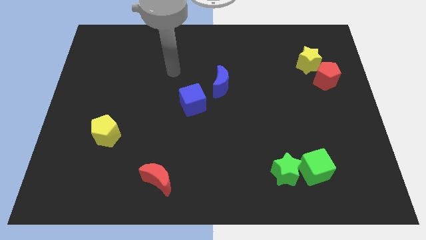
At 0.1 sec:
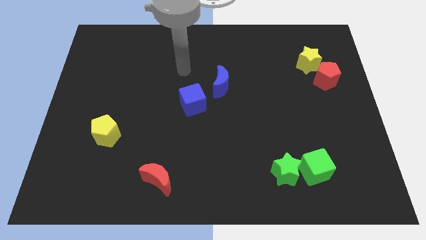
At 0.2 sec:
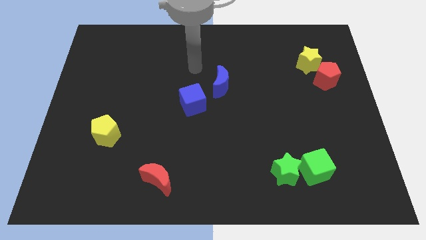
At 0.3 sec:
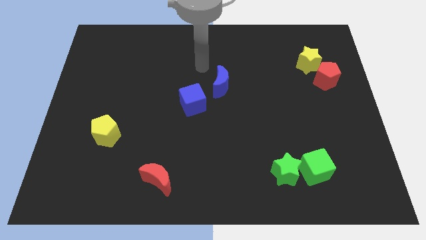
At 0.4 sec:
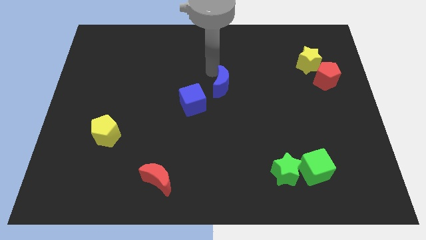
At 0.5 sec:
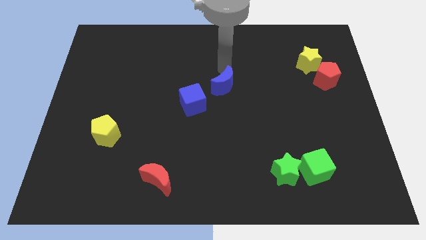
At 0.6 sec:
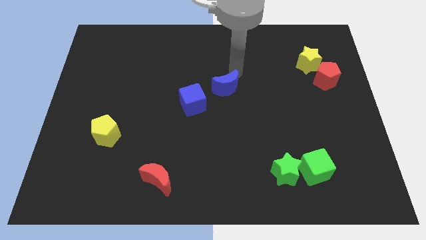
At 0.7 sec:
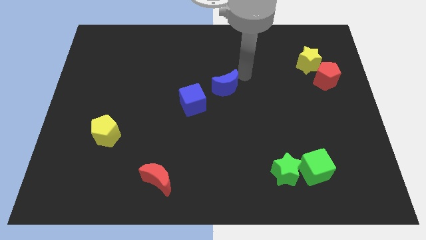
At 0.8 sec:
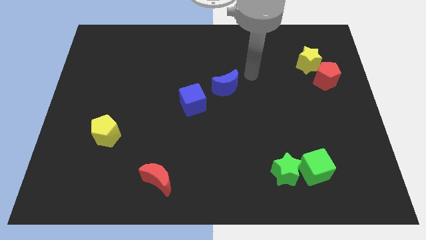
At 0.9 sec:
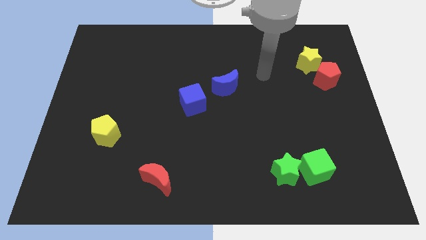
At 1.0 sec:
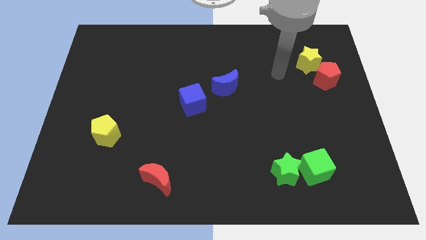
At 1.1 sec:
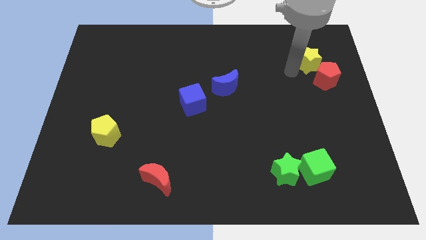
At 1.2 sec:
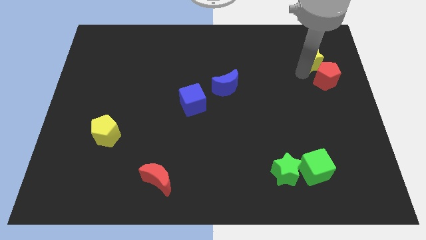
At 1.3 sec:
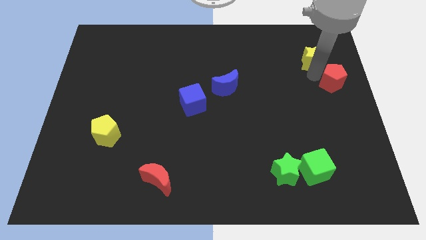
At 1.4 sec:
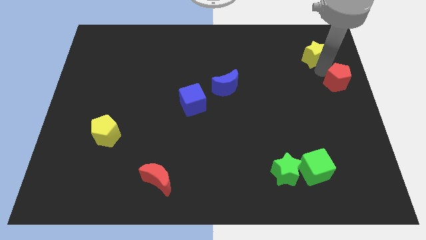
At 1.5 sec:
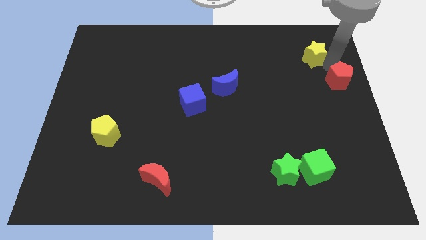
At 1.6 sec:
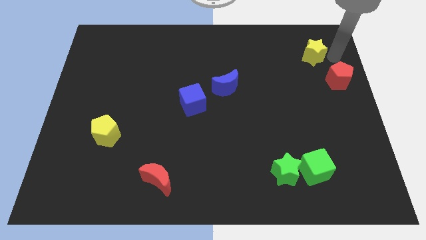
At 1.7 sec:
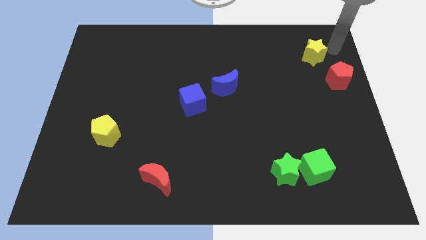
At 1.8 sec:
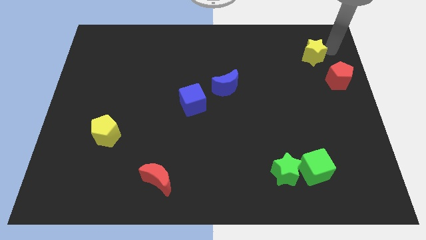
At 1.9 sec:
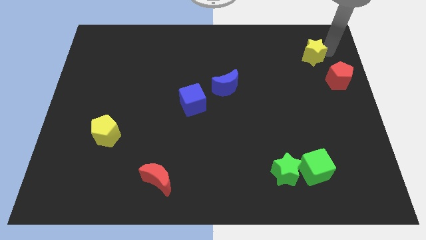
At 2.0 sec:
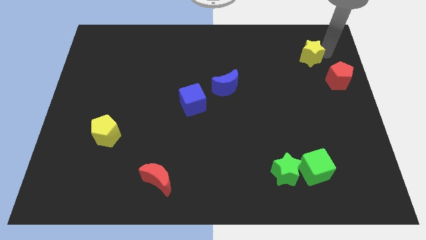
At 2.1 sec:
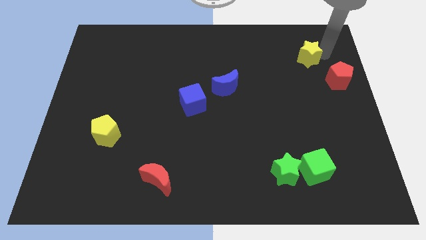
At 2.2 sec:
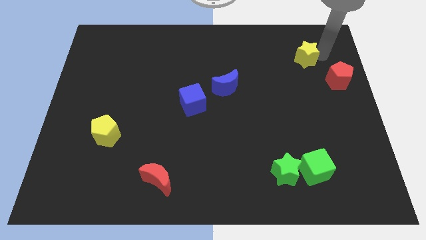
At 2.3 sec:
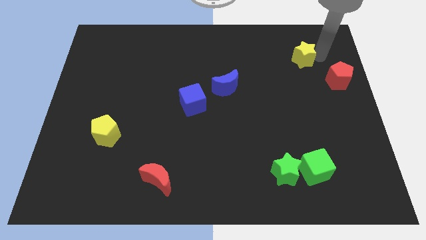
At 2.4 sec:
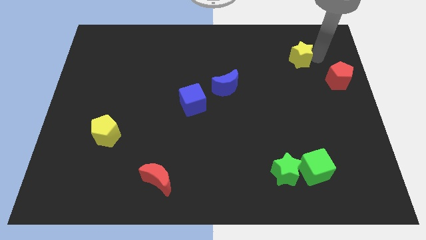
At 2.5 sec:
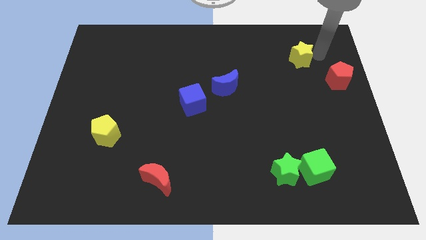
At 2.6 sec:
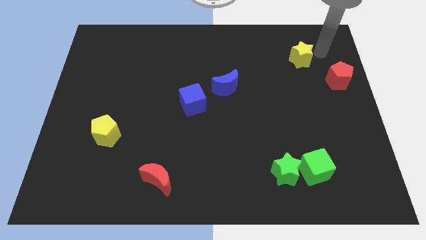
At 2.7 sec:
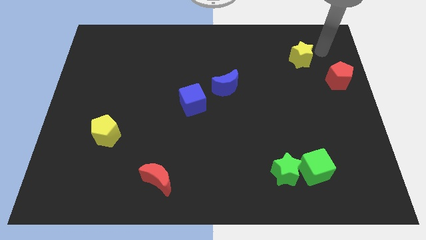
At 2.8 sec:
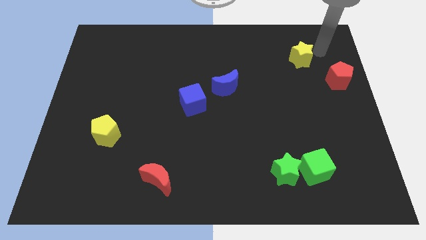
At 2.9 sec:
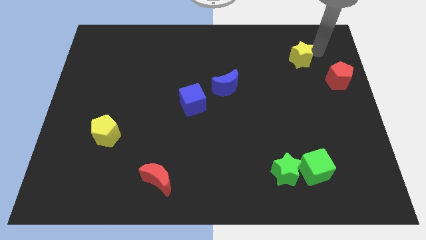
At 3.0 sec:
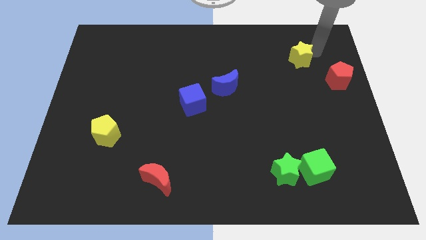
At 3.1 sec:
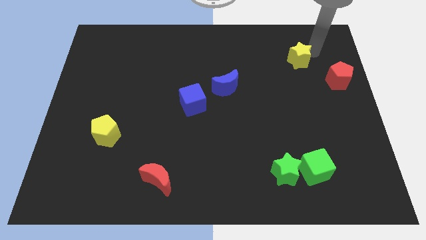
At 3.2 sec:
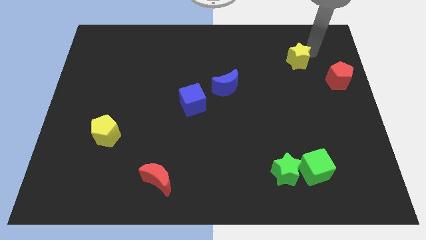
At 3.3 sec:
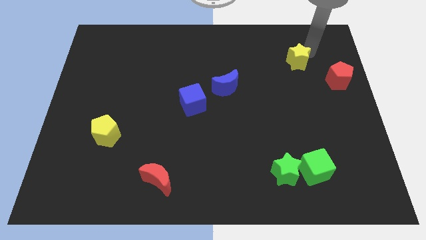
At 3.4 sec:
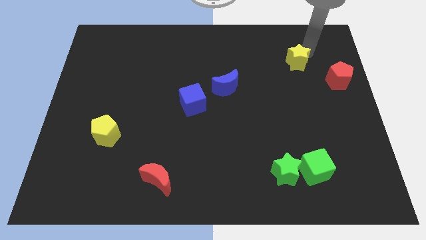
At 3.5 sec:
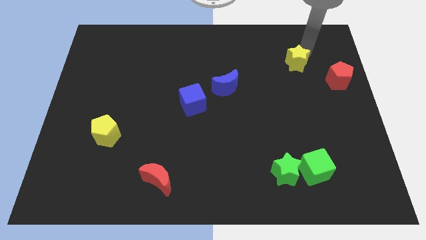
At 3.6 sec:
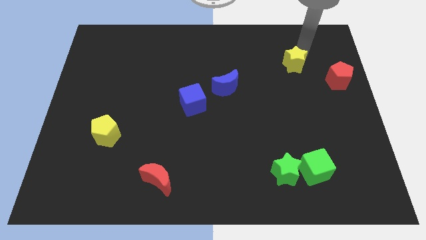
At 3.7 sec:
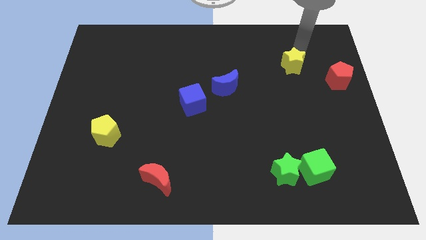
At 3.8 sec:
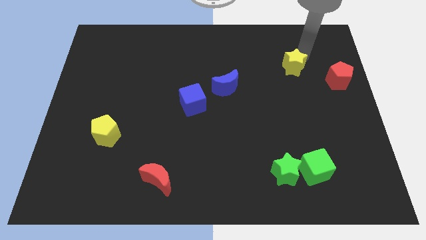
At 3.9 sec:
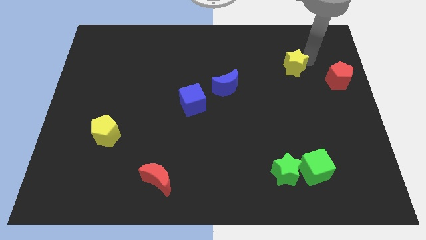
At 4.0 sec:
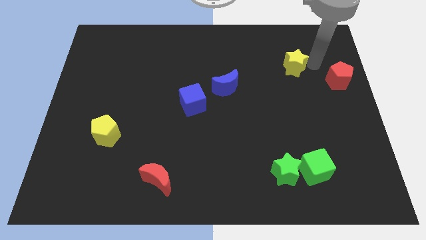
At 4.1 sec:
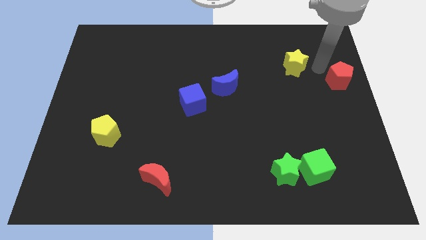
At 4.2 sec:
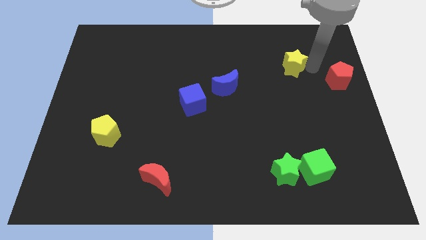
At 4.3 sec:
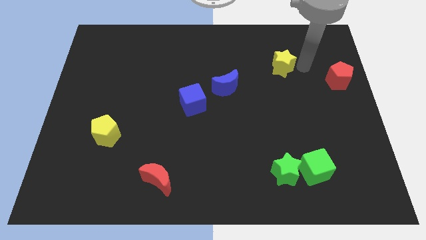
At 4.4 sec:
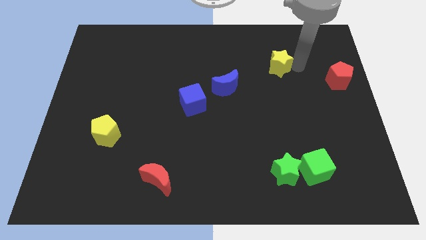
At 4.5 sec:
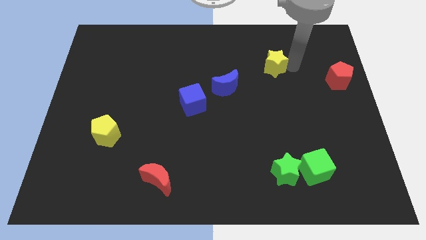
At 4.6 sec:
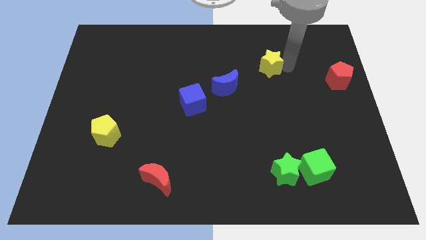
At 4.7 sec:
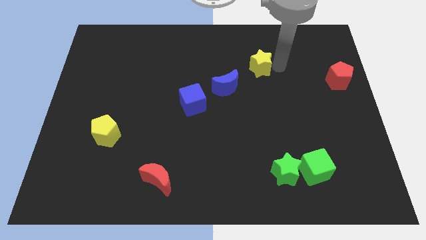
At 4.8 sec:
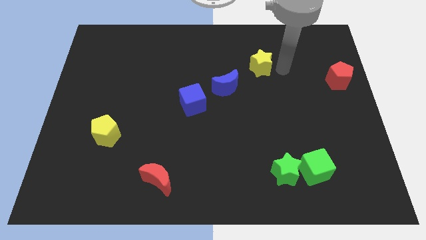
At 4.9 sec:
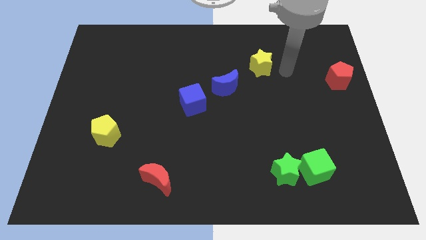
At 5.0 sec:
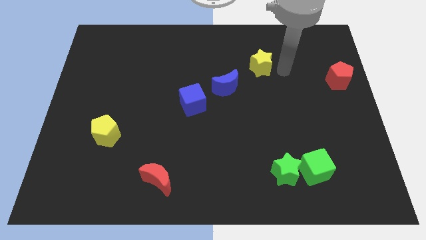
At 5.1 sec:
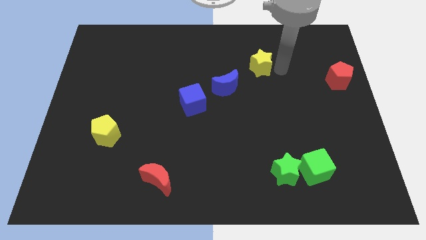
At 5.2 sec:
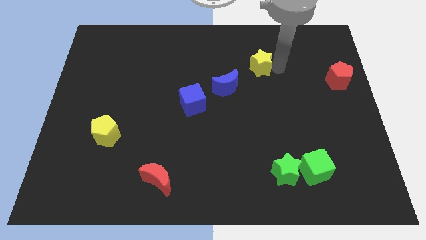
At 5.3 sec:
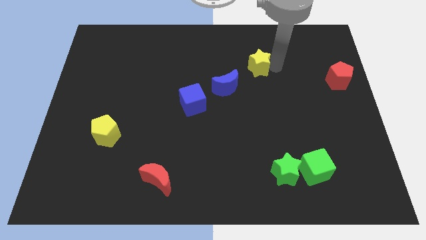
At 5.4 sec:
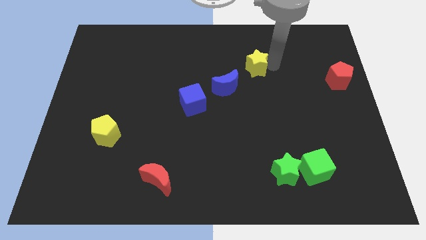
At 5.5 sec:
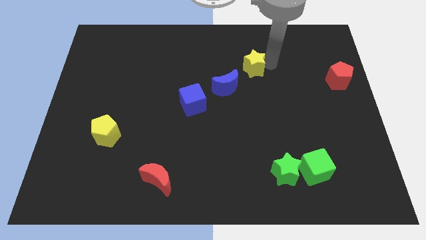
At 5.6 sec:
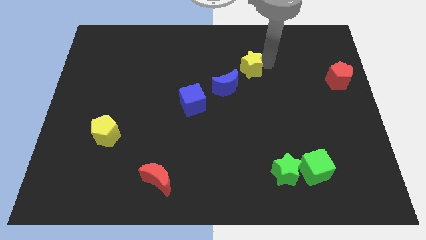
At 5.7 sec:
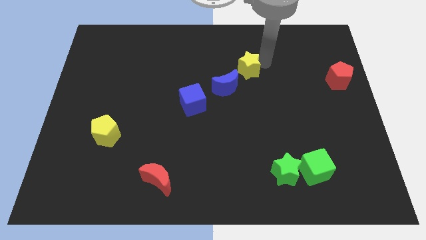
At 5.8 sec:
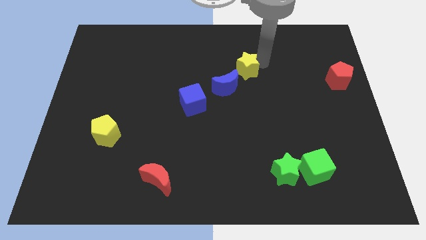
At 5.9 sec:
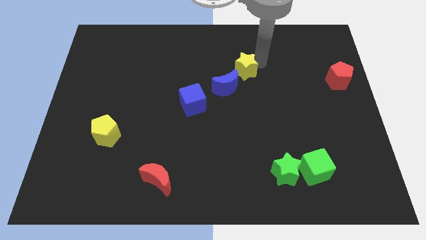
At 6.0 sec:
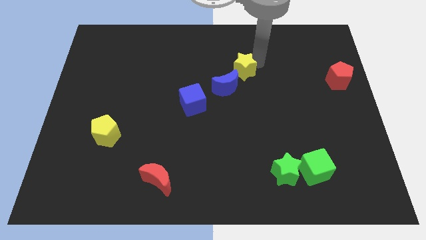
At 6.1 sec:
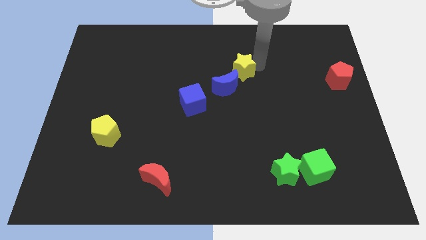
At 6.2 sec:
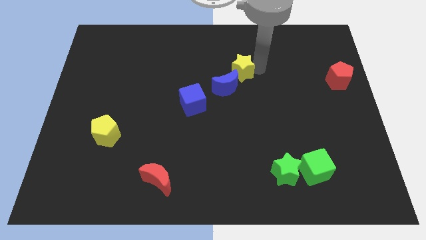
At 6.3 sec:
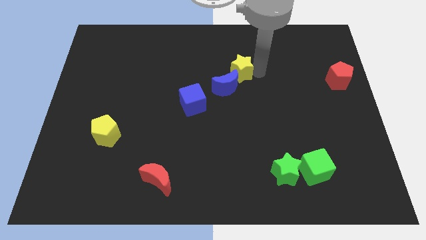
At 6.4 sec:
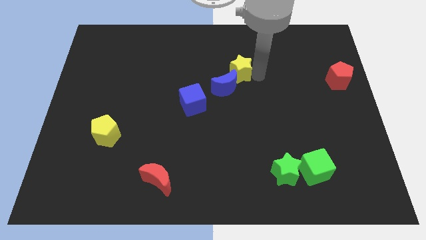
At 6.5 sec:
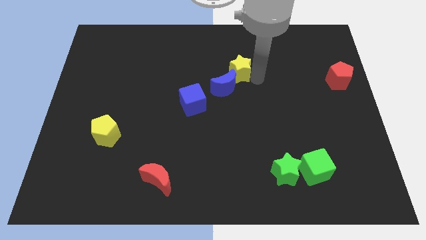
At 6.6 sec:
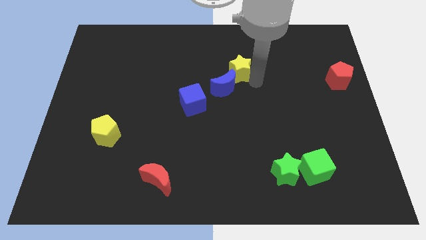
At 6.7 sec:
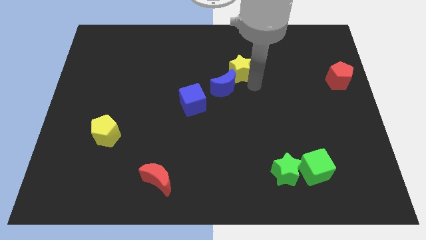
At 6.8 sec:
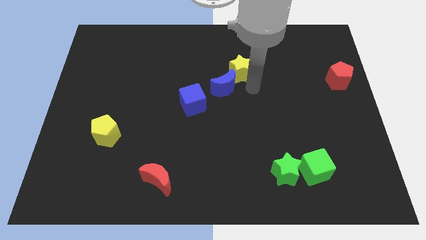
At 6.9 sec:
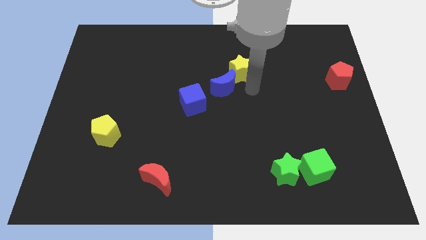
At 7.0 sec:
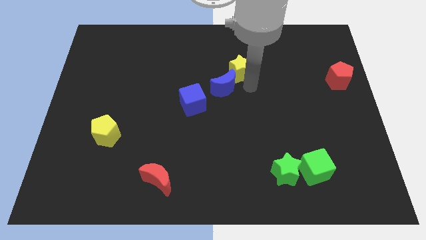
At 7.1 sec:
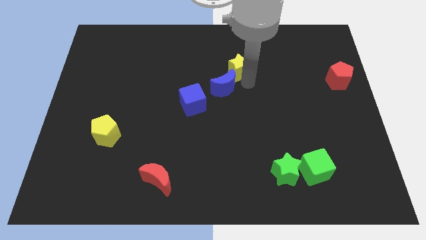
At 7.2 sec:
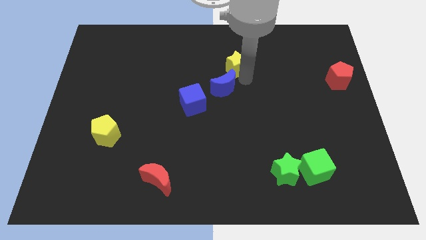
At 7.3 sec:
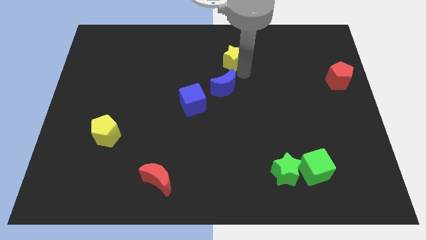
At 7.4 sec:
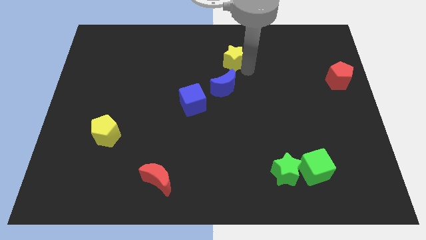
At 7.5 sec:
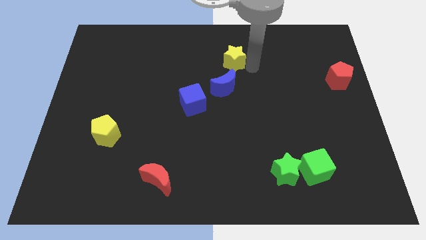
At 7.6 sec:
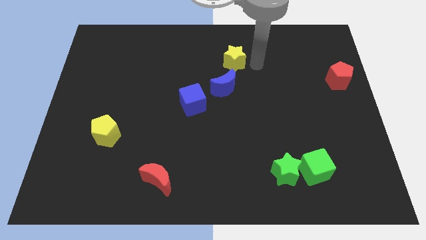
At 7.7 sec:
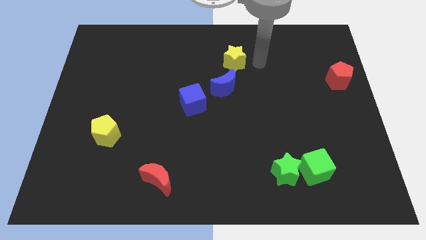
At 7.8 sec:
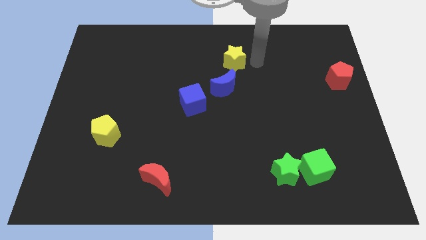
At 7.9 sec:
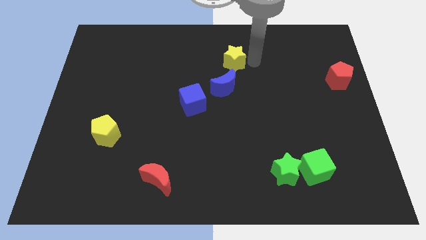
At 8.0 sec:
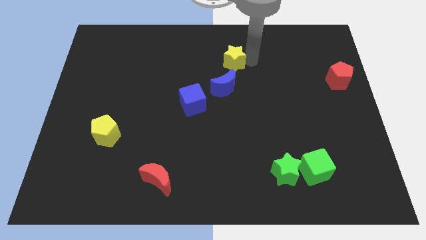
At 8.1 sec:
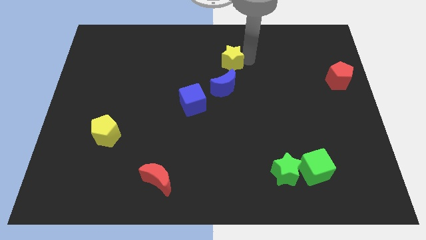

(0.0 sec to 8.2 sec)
slide the yellow star to the left

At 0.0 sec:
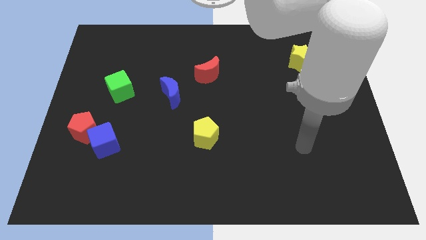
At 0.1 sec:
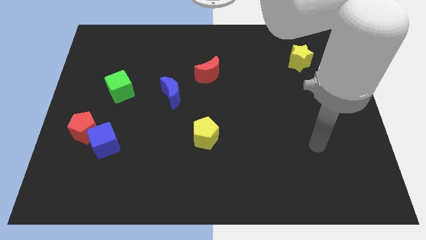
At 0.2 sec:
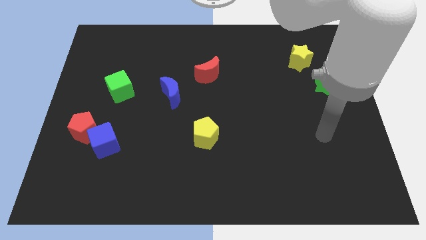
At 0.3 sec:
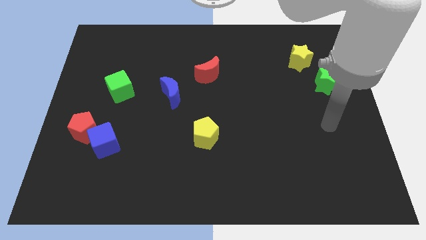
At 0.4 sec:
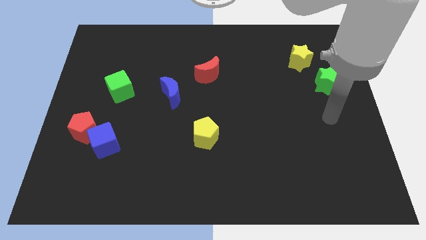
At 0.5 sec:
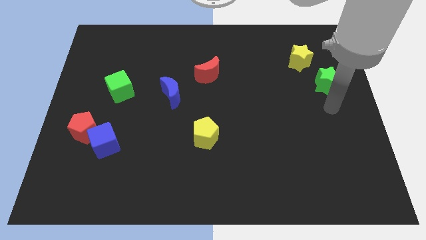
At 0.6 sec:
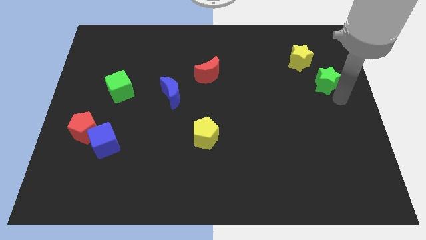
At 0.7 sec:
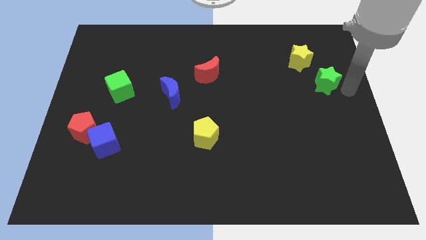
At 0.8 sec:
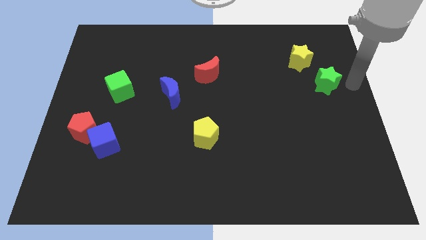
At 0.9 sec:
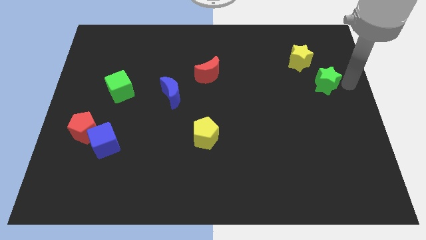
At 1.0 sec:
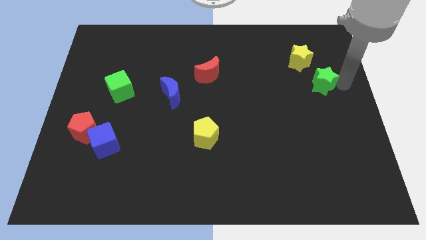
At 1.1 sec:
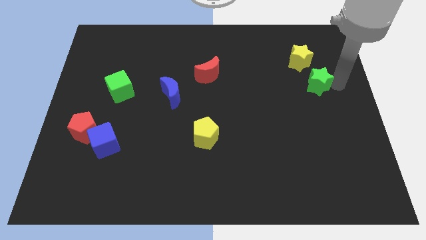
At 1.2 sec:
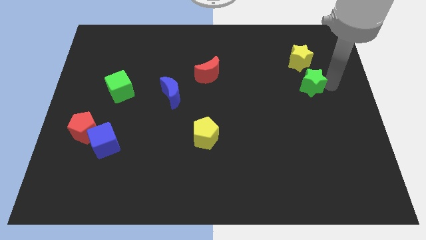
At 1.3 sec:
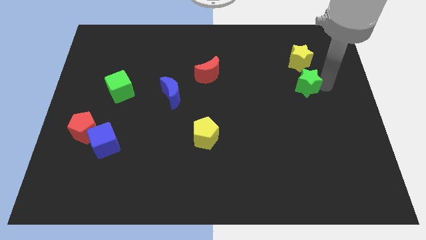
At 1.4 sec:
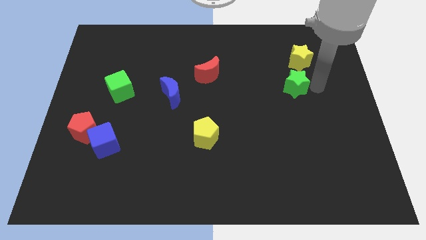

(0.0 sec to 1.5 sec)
move the green star a little left
